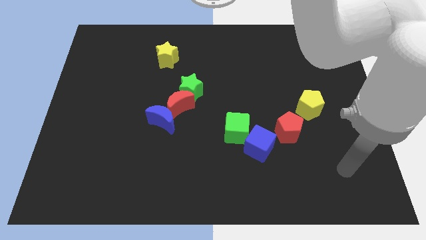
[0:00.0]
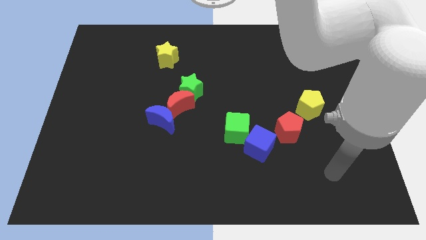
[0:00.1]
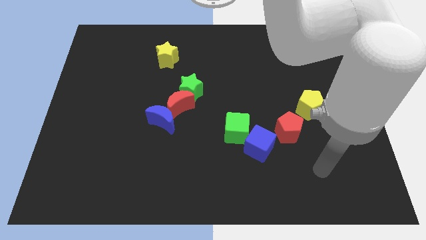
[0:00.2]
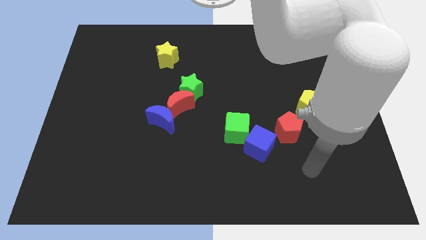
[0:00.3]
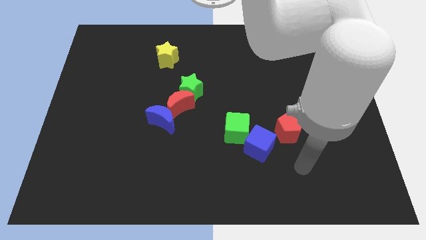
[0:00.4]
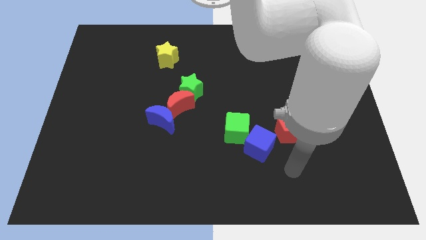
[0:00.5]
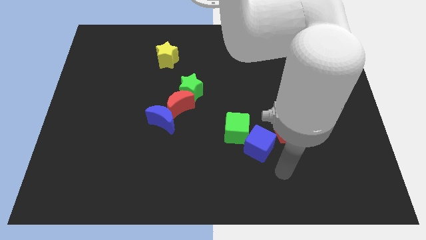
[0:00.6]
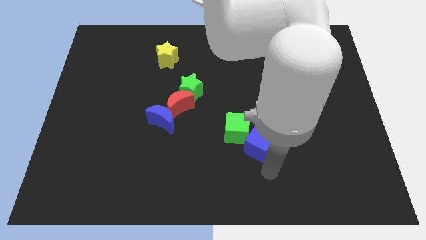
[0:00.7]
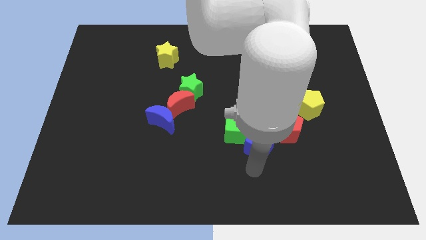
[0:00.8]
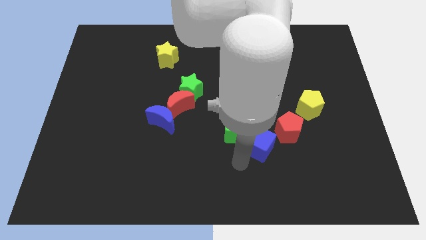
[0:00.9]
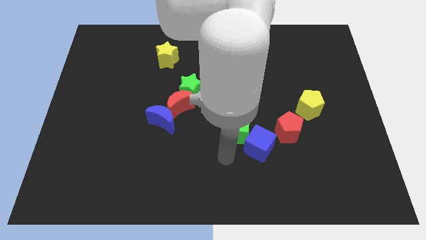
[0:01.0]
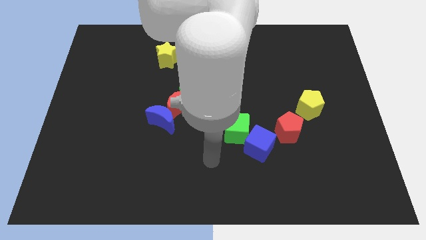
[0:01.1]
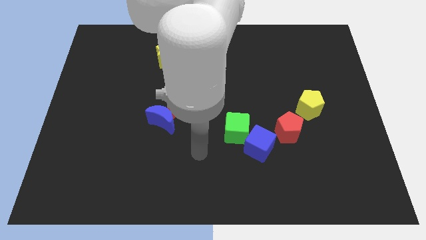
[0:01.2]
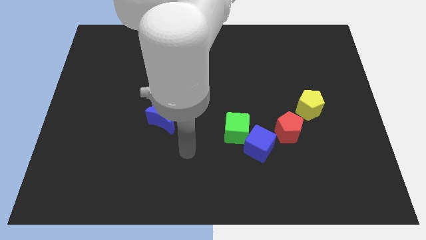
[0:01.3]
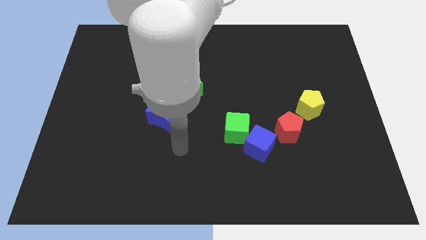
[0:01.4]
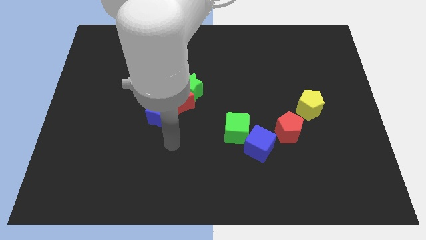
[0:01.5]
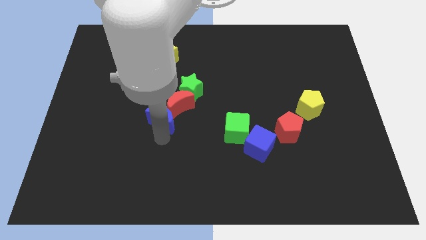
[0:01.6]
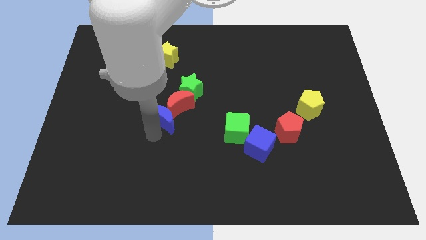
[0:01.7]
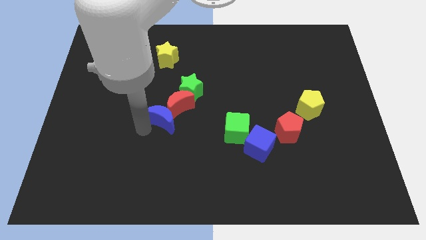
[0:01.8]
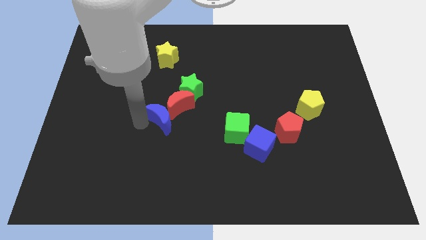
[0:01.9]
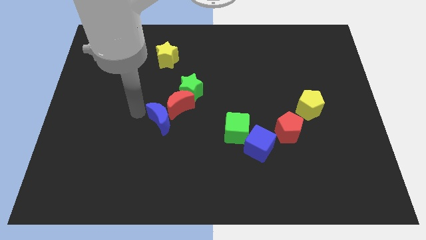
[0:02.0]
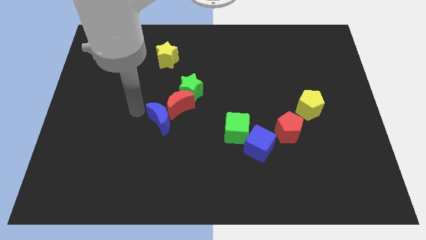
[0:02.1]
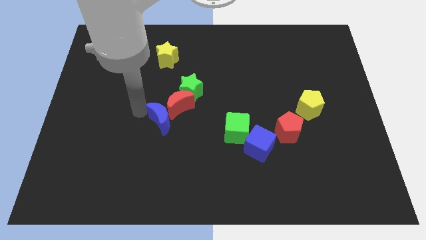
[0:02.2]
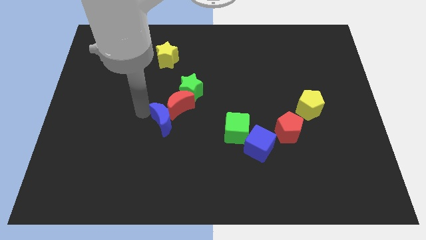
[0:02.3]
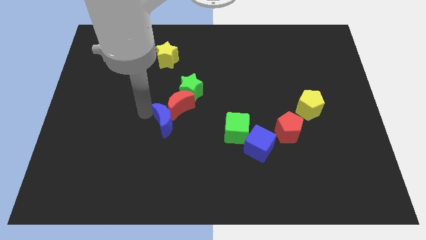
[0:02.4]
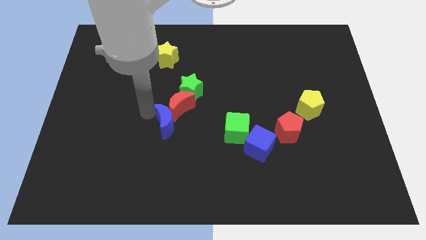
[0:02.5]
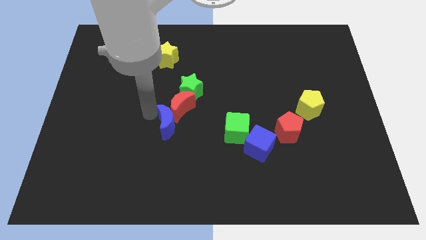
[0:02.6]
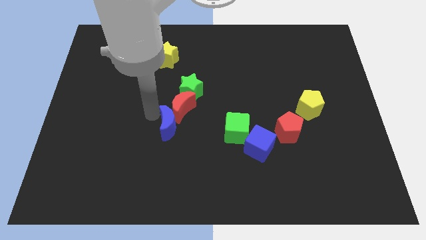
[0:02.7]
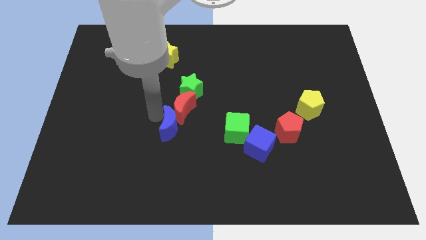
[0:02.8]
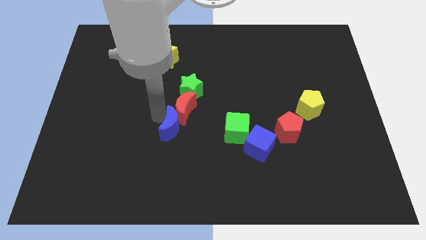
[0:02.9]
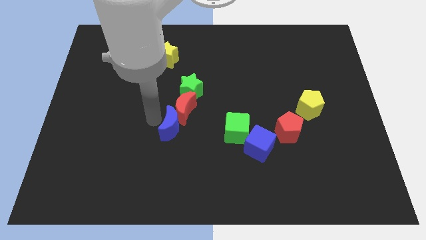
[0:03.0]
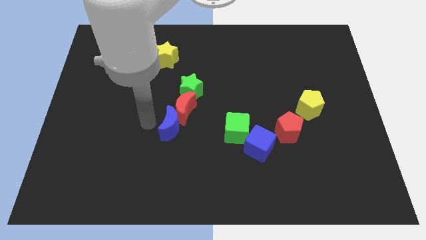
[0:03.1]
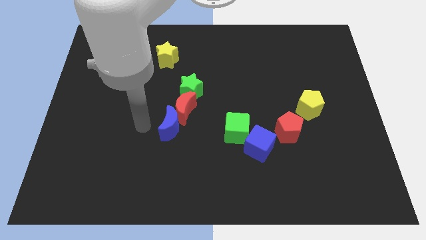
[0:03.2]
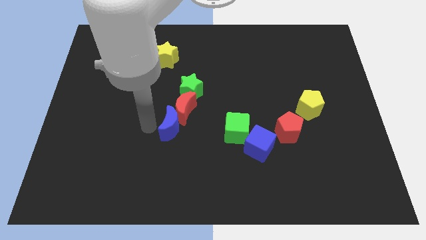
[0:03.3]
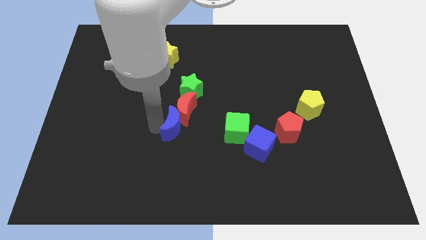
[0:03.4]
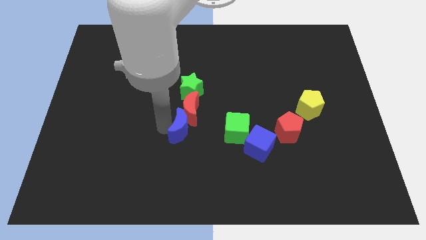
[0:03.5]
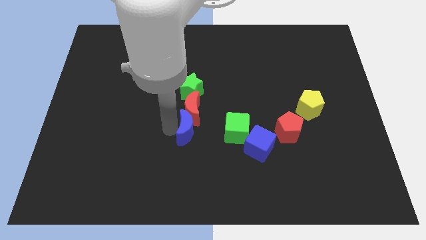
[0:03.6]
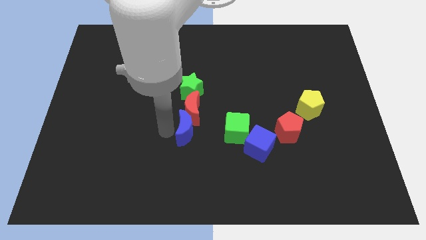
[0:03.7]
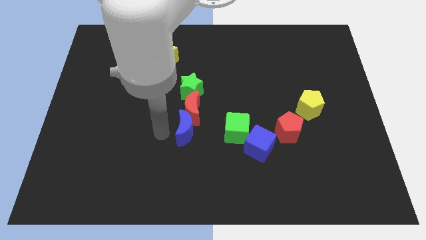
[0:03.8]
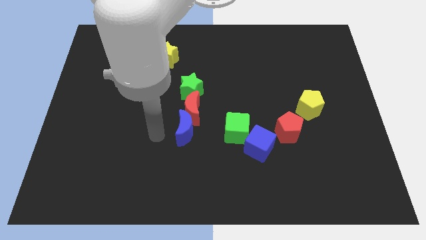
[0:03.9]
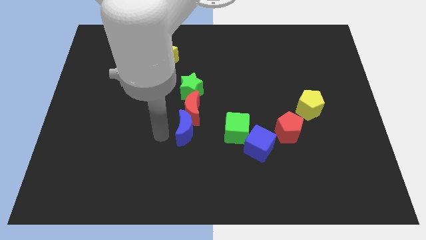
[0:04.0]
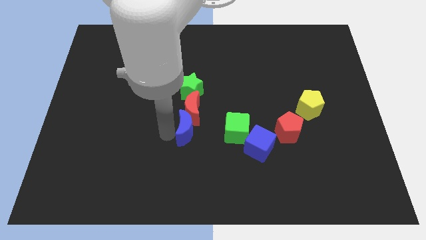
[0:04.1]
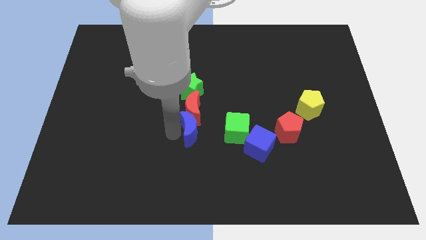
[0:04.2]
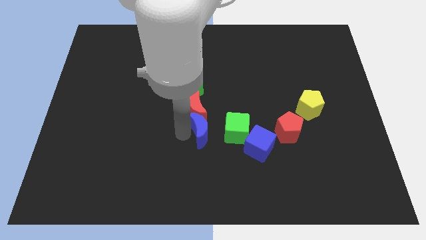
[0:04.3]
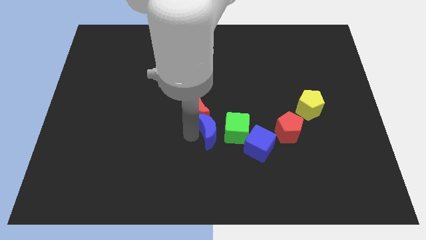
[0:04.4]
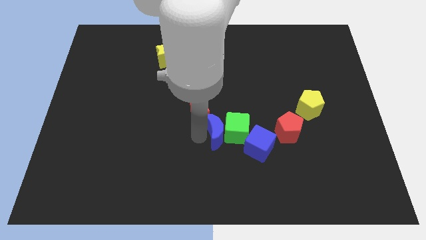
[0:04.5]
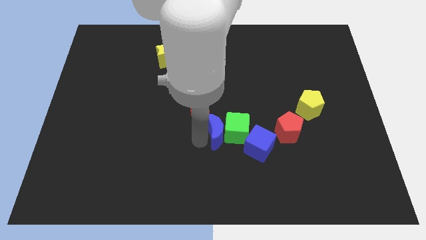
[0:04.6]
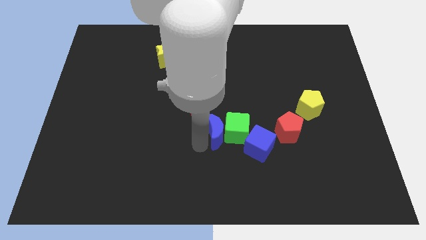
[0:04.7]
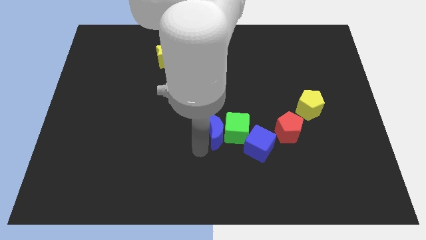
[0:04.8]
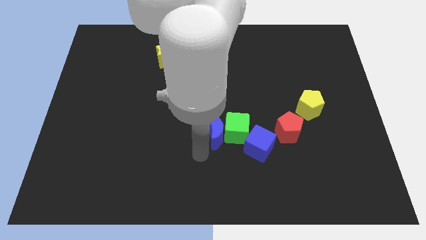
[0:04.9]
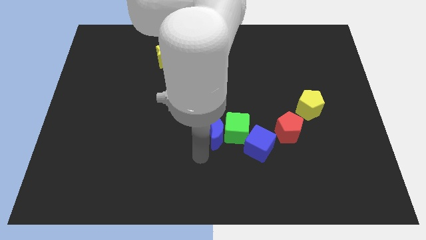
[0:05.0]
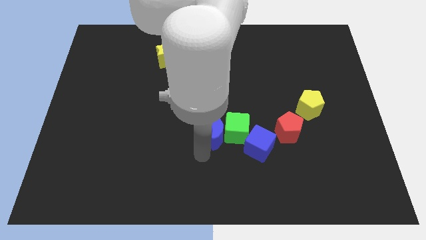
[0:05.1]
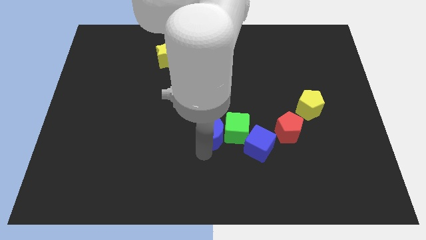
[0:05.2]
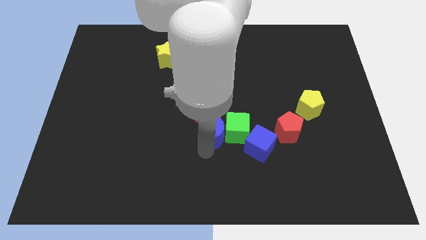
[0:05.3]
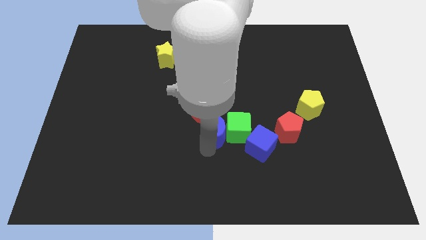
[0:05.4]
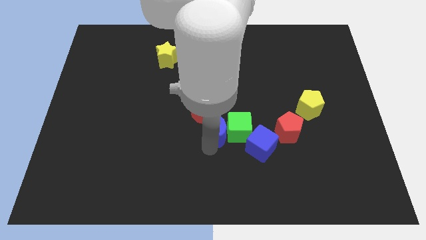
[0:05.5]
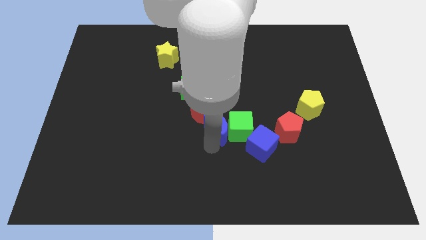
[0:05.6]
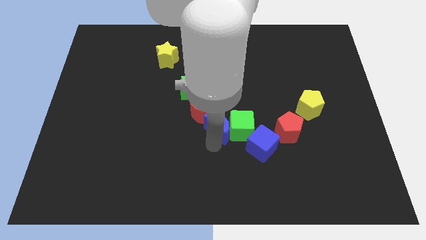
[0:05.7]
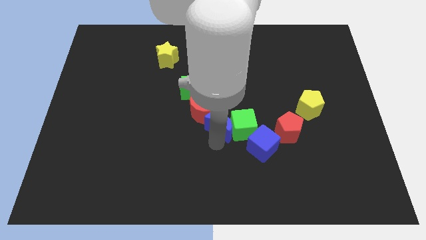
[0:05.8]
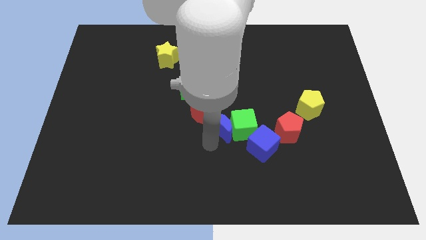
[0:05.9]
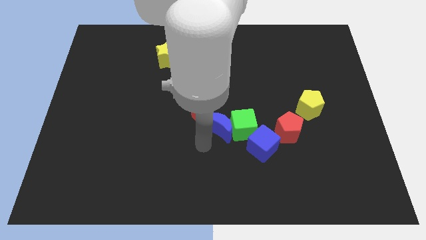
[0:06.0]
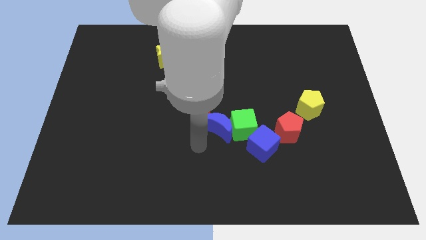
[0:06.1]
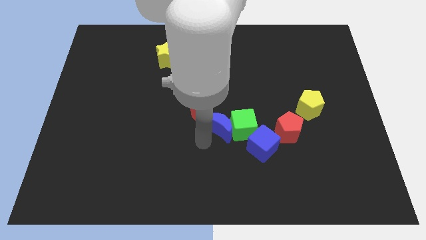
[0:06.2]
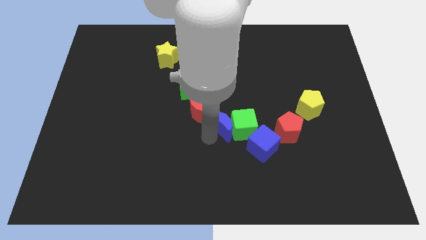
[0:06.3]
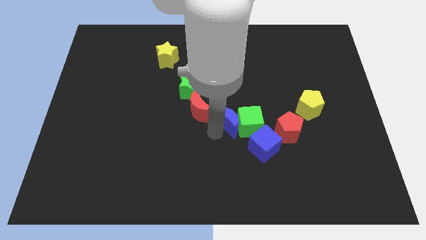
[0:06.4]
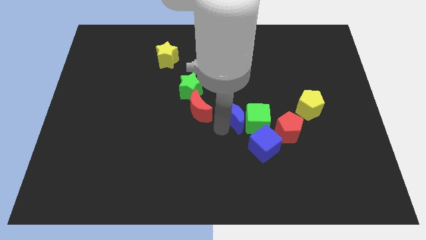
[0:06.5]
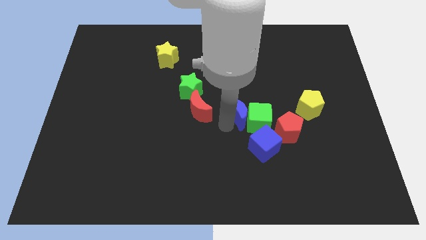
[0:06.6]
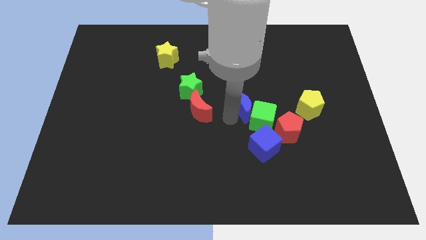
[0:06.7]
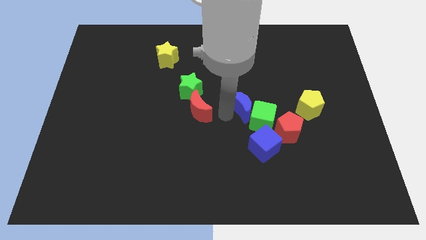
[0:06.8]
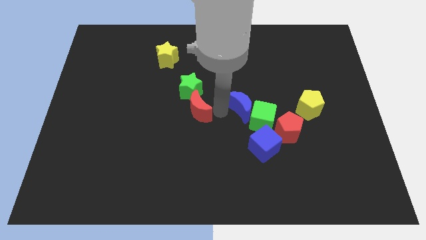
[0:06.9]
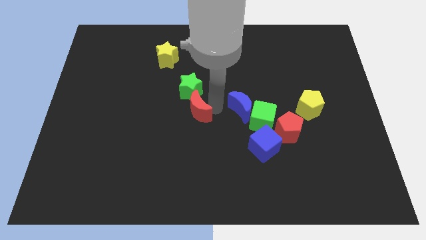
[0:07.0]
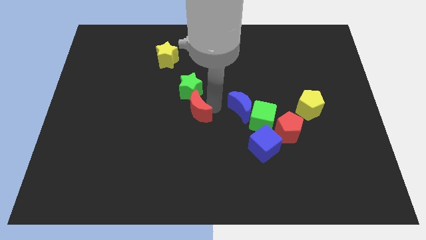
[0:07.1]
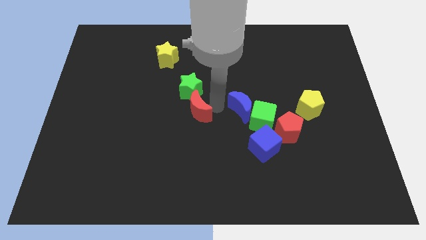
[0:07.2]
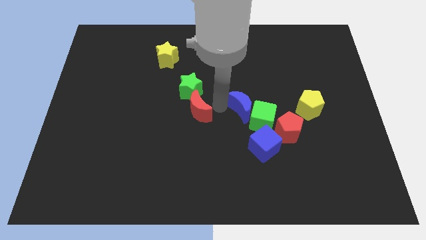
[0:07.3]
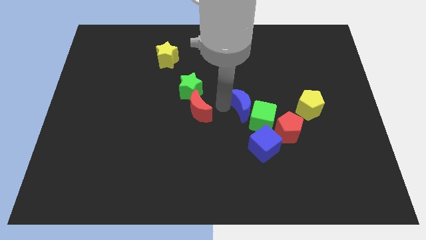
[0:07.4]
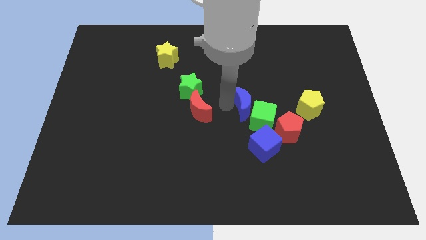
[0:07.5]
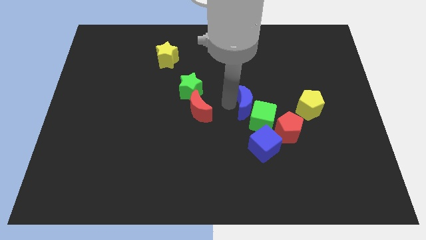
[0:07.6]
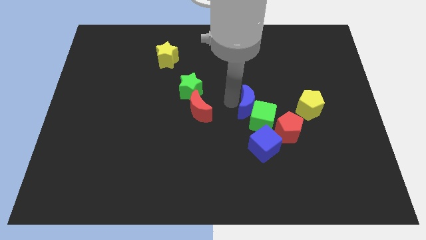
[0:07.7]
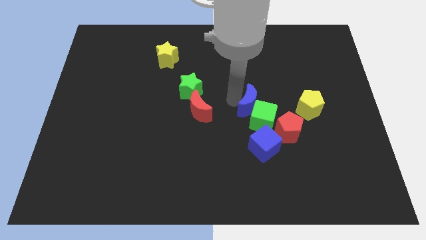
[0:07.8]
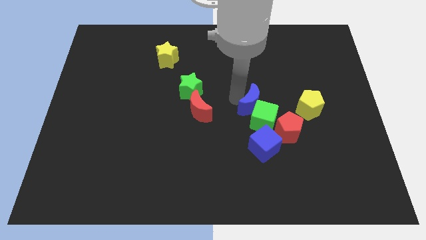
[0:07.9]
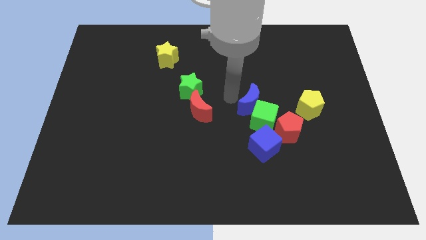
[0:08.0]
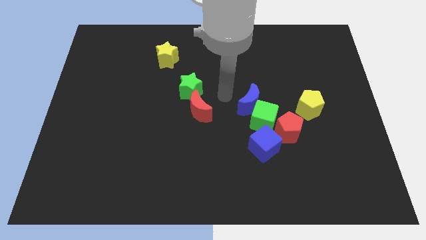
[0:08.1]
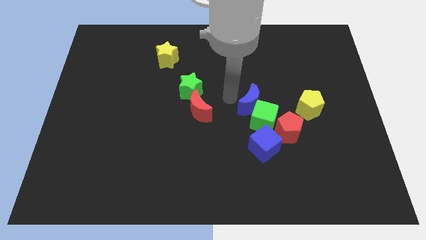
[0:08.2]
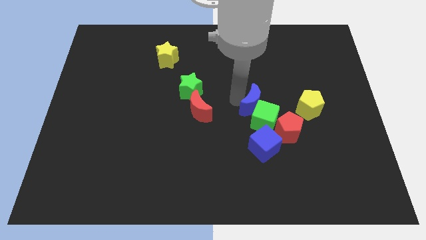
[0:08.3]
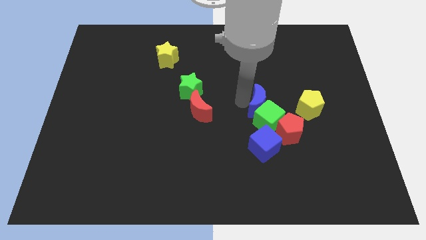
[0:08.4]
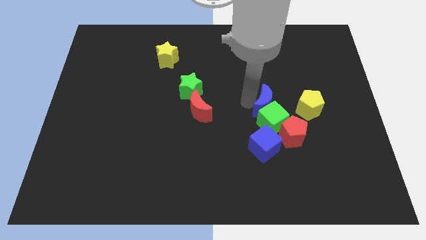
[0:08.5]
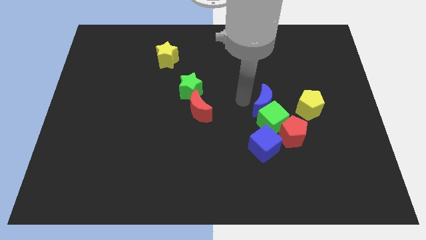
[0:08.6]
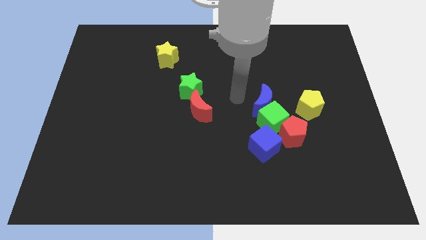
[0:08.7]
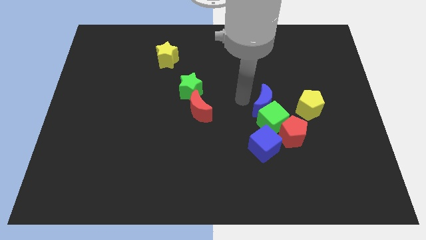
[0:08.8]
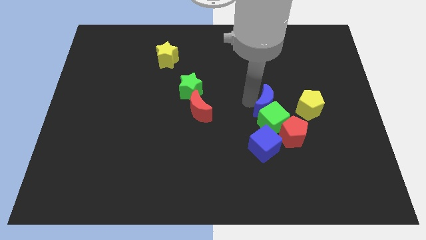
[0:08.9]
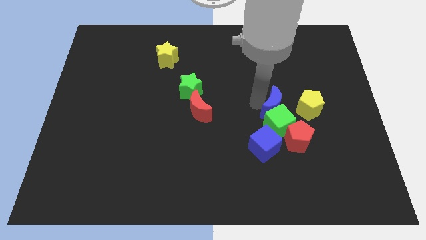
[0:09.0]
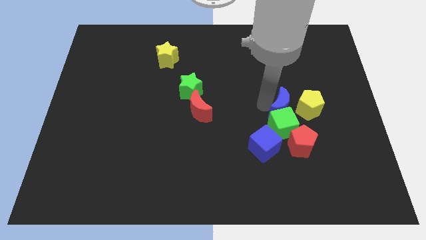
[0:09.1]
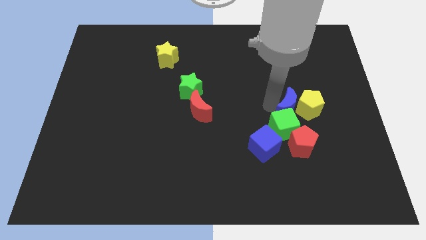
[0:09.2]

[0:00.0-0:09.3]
slide the blue moon towards the yellow pentagon
